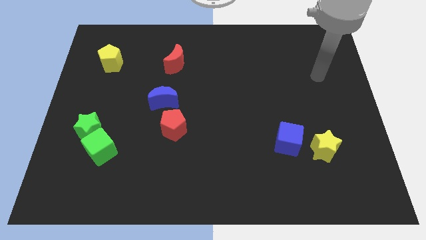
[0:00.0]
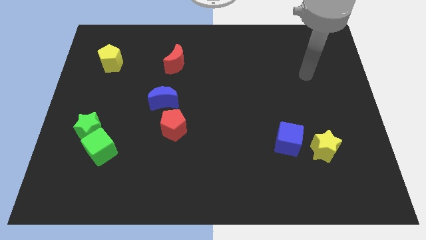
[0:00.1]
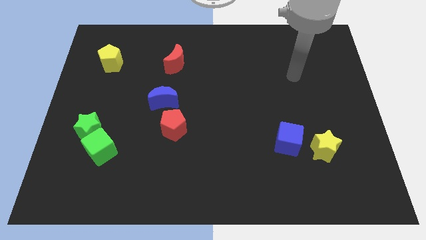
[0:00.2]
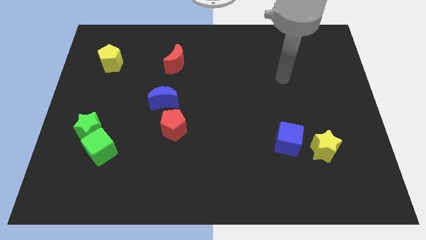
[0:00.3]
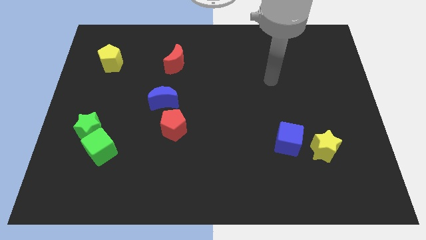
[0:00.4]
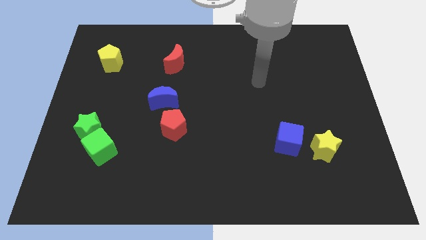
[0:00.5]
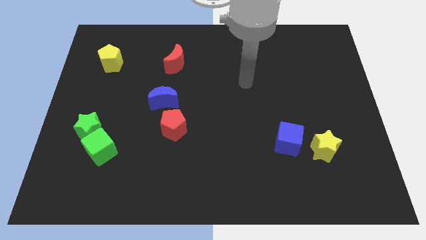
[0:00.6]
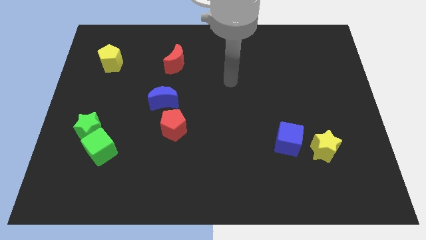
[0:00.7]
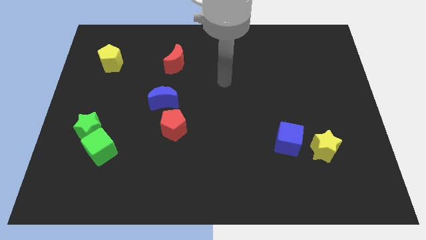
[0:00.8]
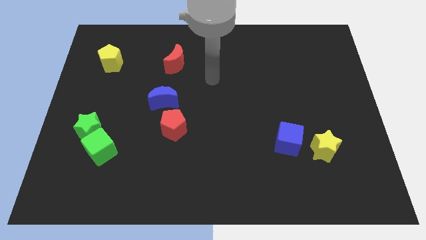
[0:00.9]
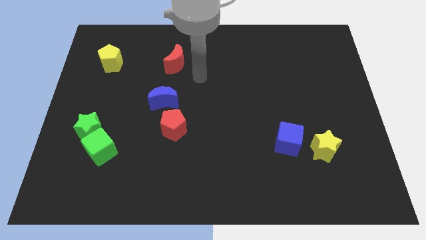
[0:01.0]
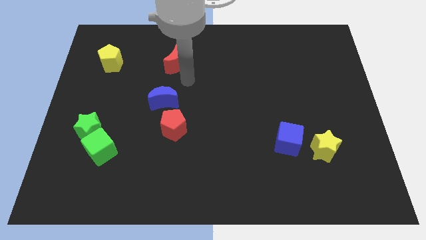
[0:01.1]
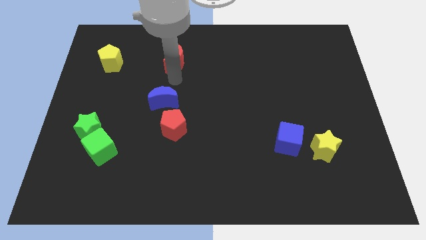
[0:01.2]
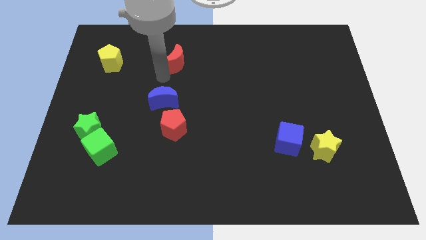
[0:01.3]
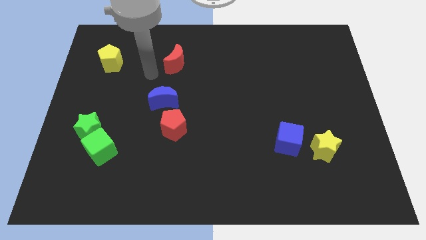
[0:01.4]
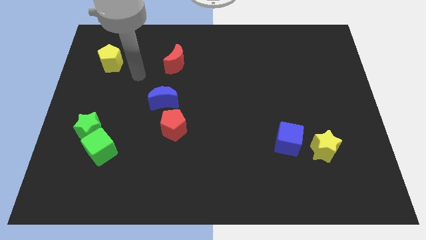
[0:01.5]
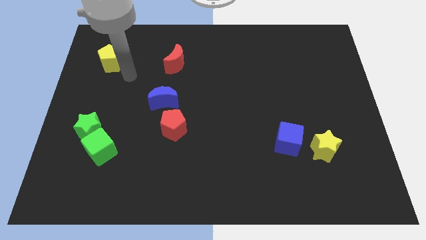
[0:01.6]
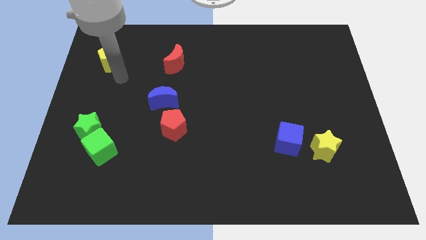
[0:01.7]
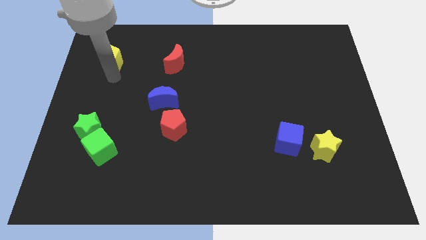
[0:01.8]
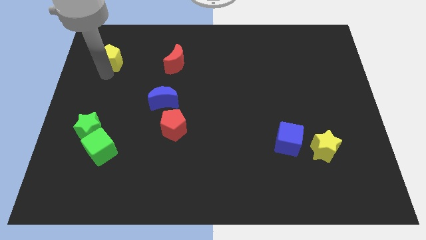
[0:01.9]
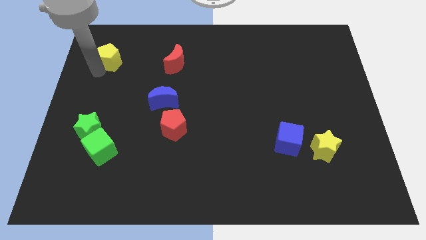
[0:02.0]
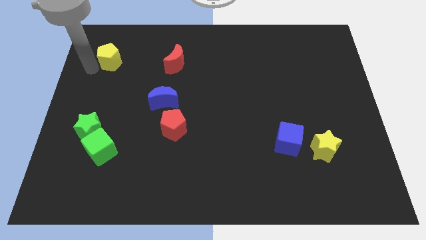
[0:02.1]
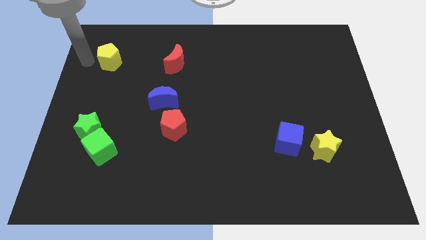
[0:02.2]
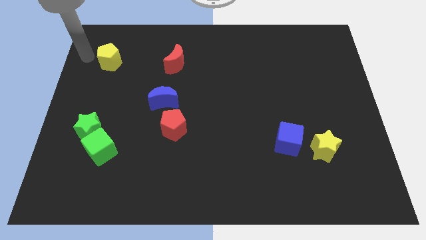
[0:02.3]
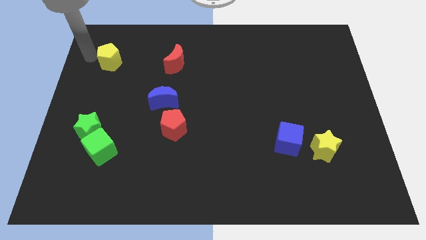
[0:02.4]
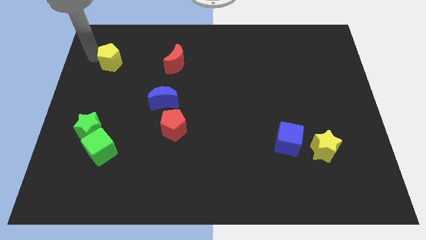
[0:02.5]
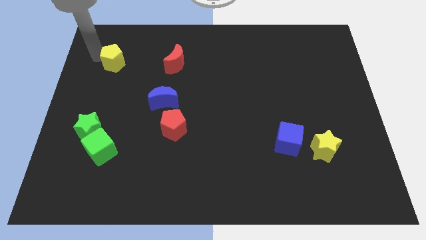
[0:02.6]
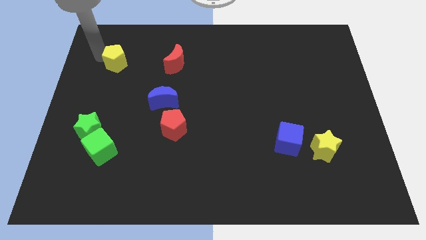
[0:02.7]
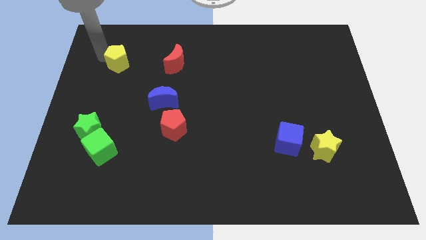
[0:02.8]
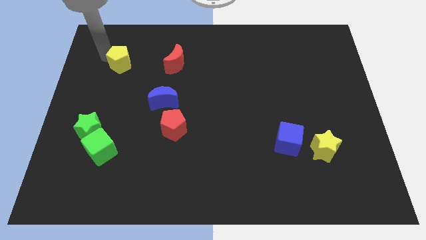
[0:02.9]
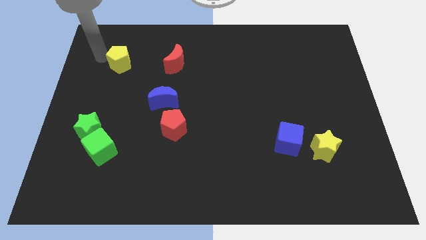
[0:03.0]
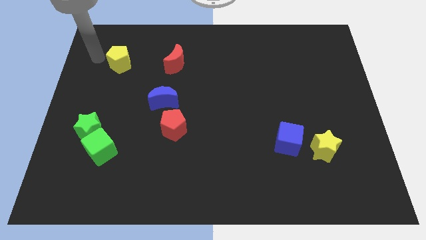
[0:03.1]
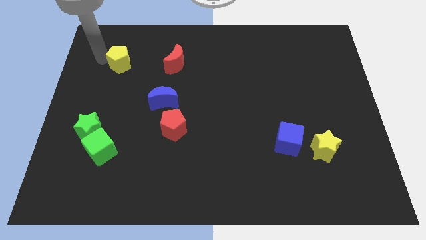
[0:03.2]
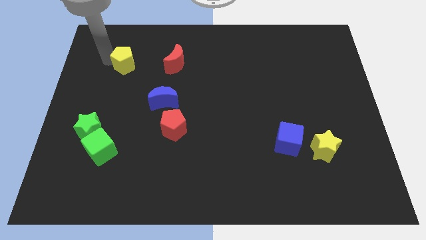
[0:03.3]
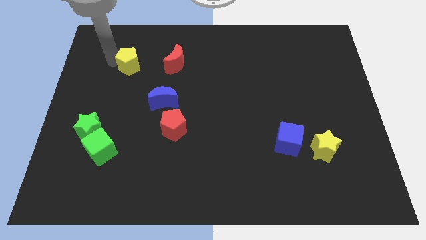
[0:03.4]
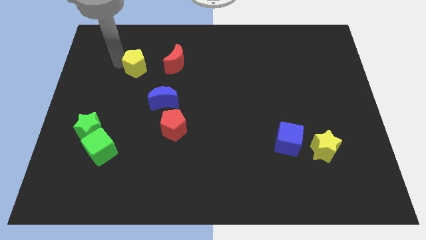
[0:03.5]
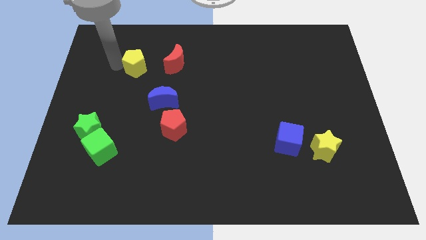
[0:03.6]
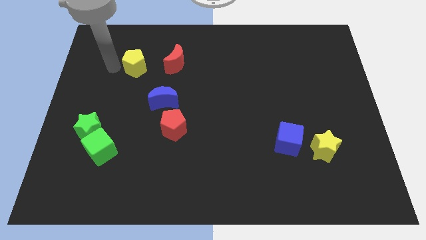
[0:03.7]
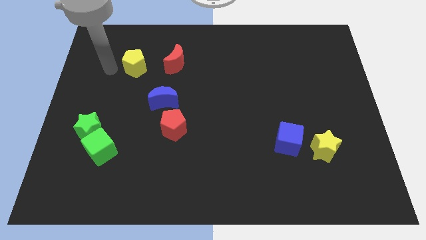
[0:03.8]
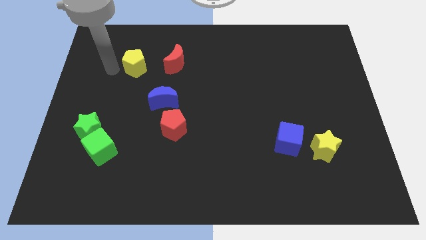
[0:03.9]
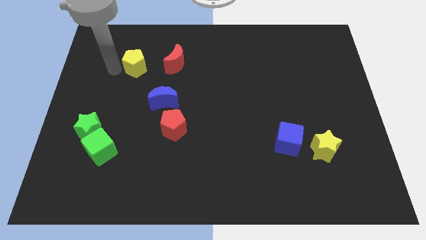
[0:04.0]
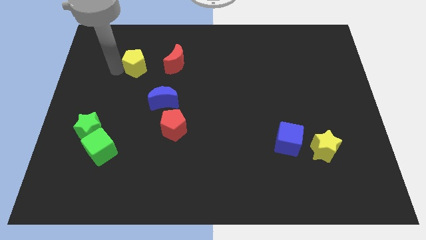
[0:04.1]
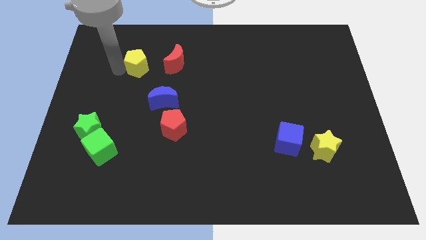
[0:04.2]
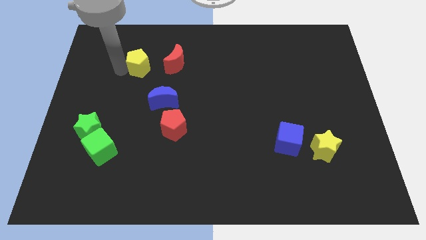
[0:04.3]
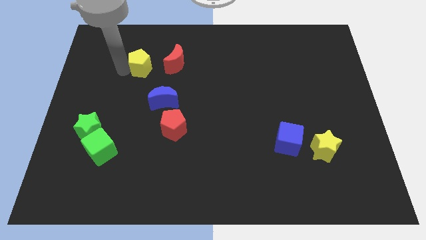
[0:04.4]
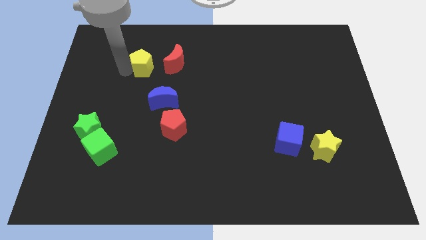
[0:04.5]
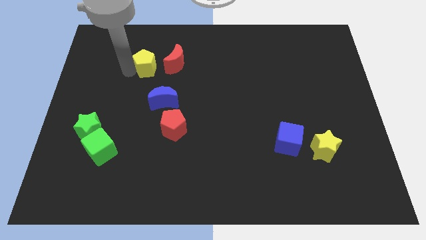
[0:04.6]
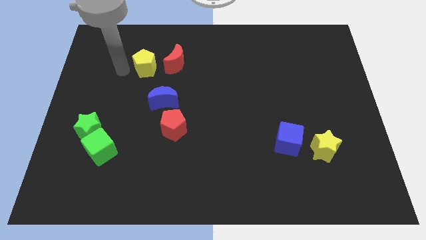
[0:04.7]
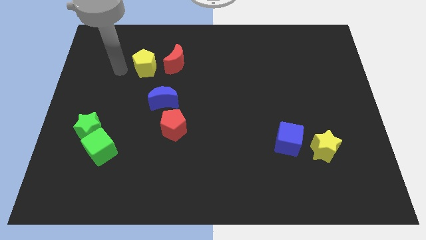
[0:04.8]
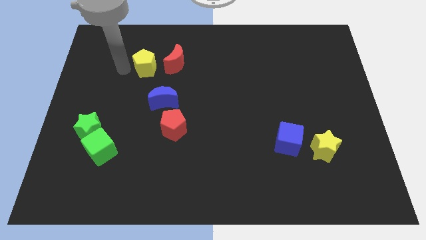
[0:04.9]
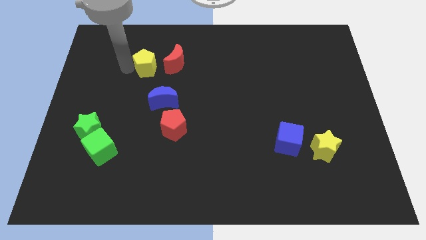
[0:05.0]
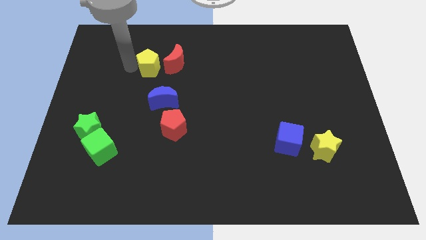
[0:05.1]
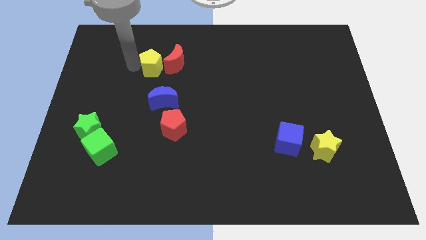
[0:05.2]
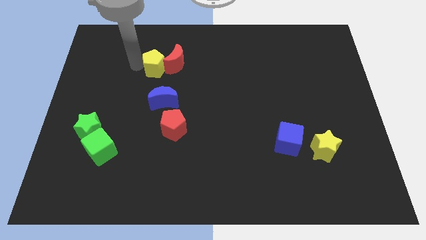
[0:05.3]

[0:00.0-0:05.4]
put the yellow pentagon next to the red moon

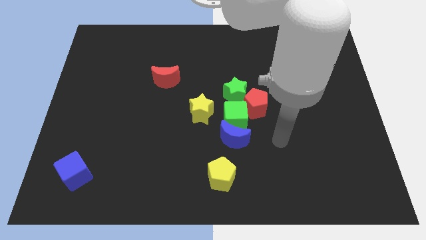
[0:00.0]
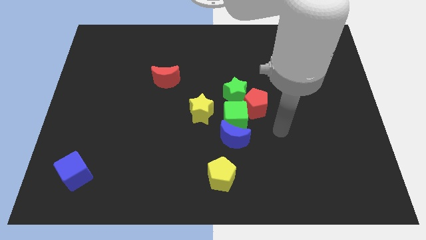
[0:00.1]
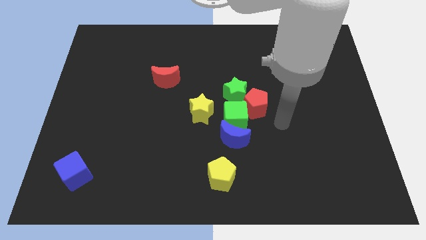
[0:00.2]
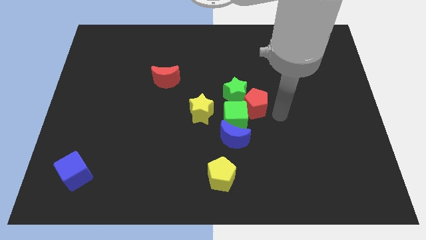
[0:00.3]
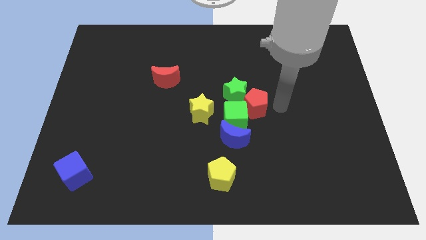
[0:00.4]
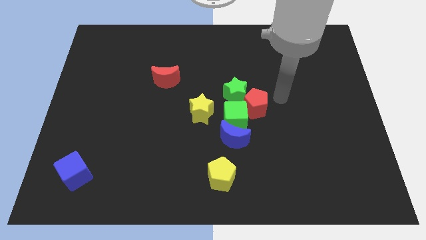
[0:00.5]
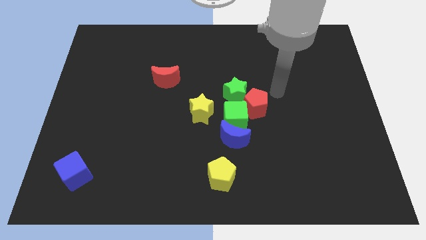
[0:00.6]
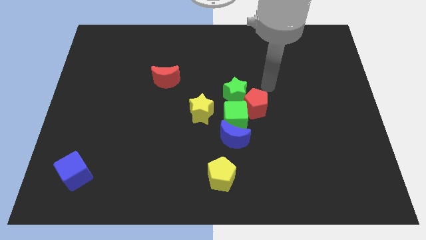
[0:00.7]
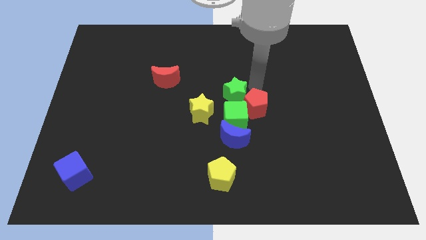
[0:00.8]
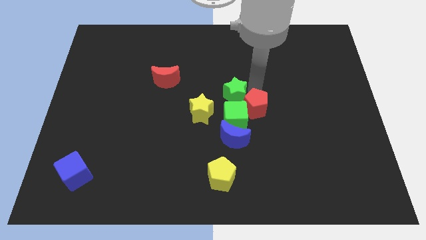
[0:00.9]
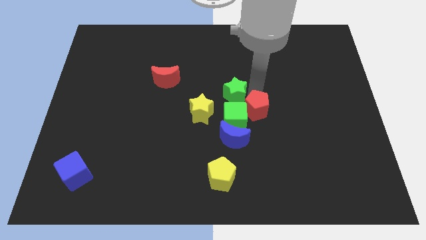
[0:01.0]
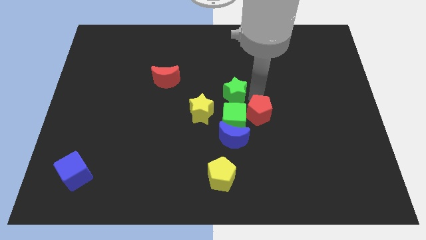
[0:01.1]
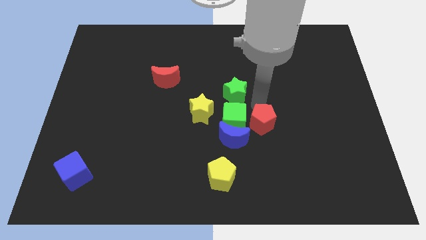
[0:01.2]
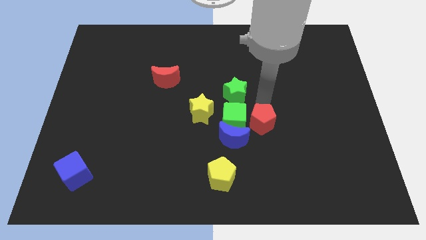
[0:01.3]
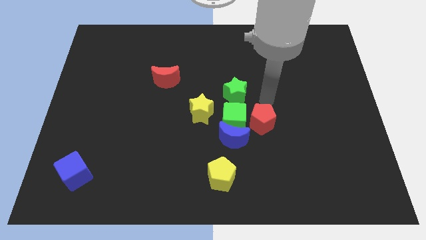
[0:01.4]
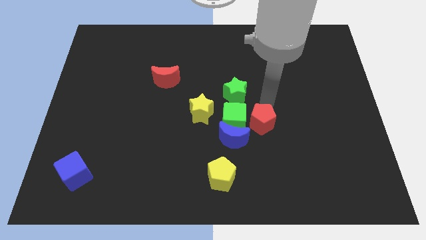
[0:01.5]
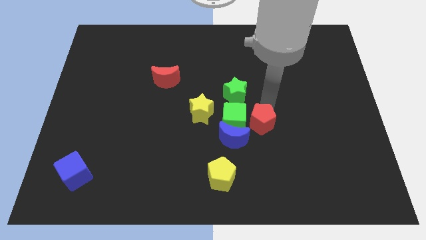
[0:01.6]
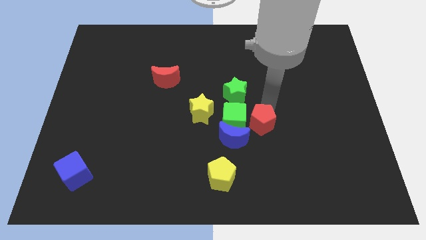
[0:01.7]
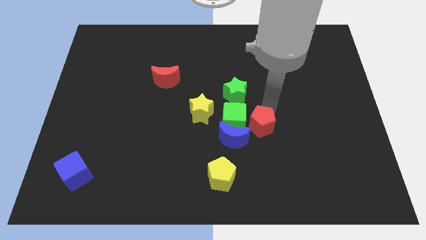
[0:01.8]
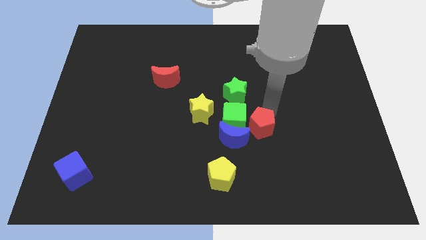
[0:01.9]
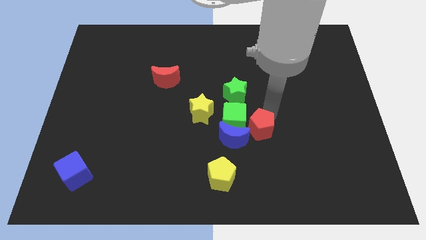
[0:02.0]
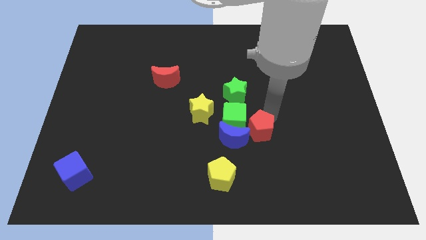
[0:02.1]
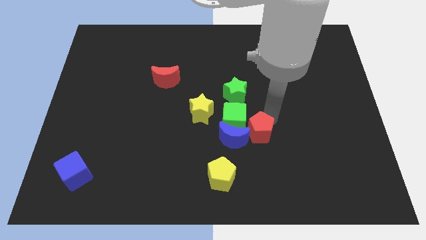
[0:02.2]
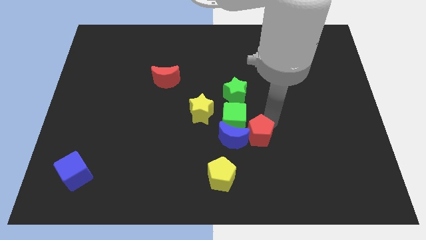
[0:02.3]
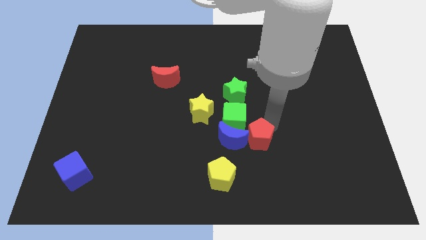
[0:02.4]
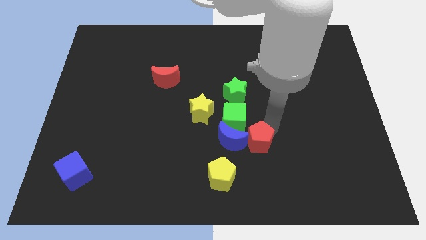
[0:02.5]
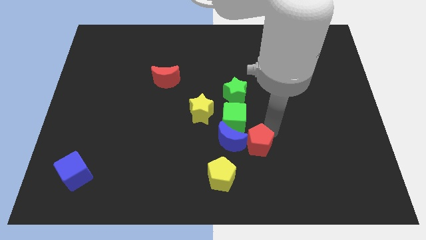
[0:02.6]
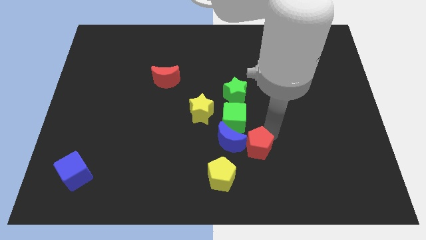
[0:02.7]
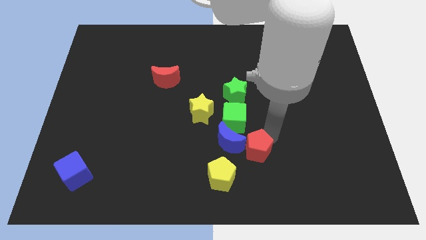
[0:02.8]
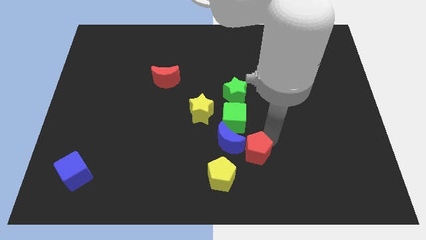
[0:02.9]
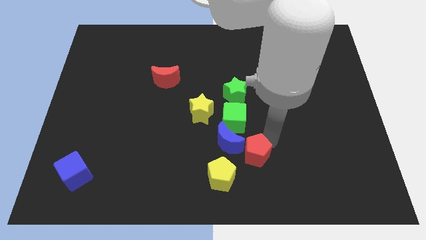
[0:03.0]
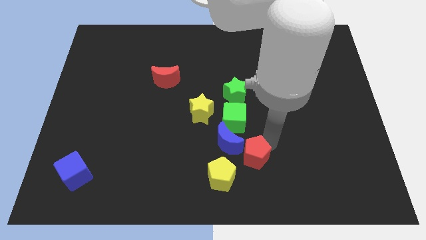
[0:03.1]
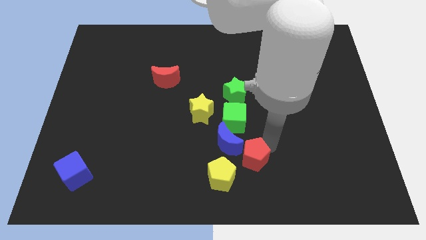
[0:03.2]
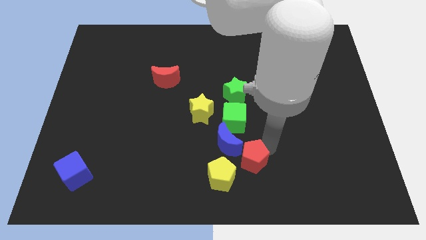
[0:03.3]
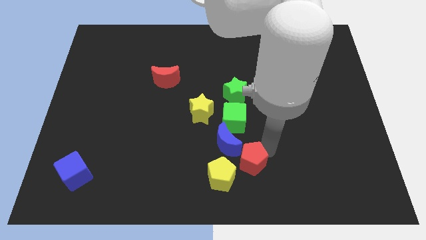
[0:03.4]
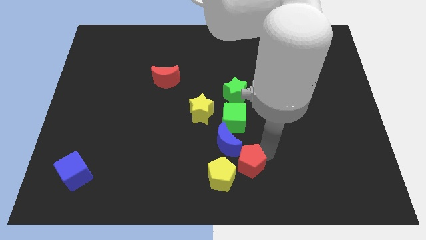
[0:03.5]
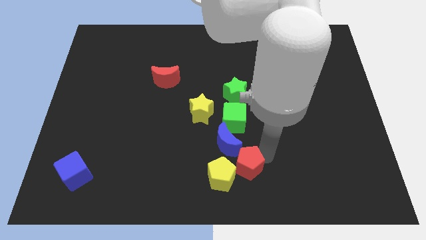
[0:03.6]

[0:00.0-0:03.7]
move the red pentagon next to the yellow pentagon
